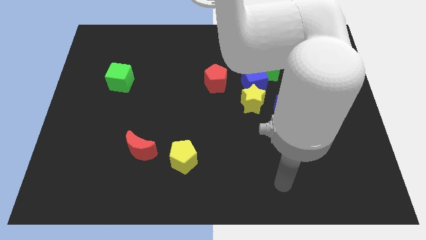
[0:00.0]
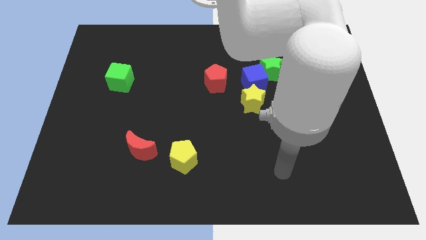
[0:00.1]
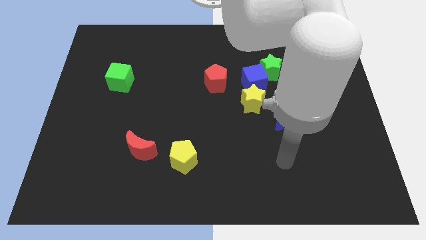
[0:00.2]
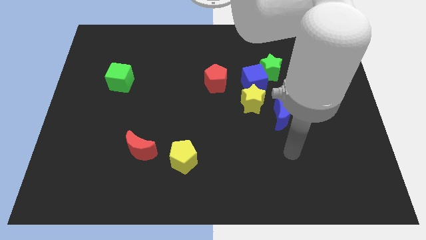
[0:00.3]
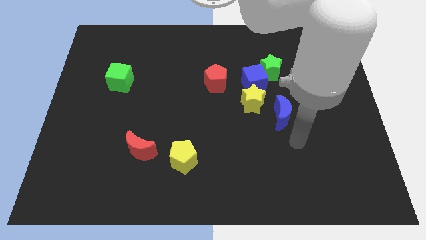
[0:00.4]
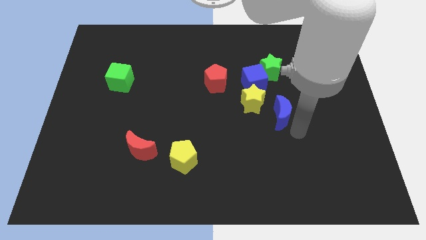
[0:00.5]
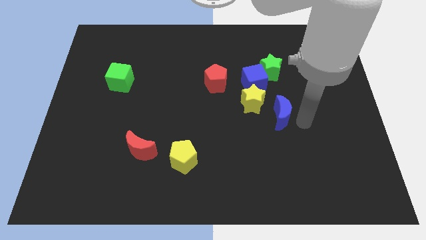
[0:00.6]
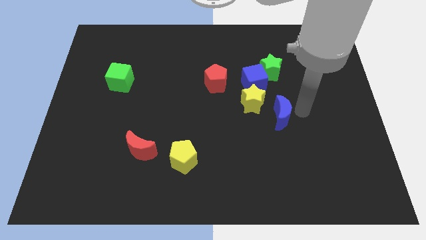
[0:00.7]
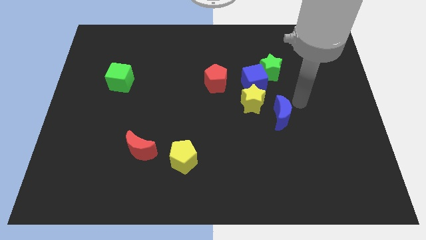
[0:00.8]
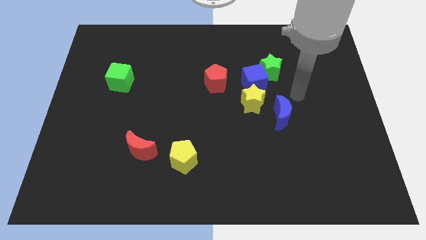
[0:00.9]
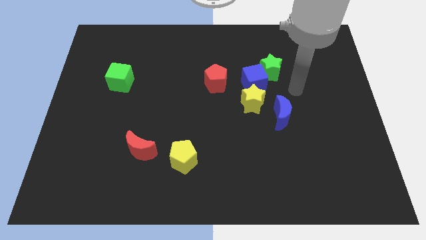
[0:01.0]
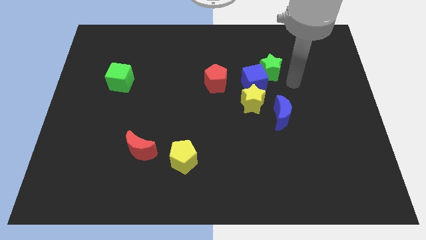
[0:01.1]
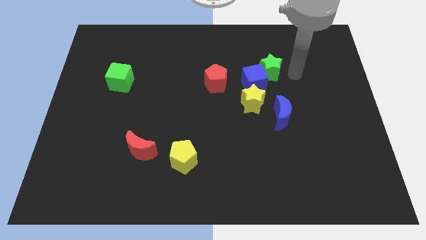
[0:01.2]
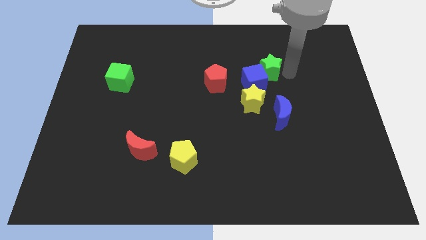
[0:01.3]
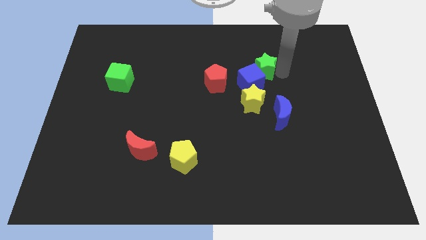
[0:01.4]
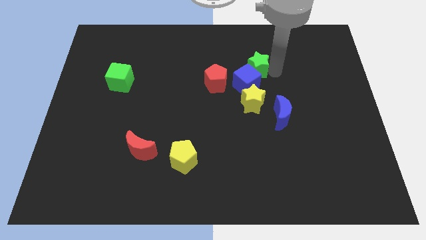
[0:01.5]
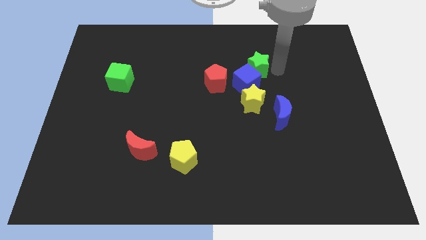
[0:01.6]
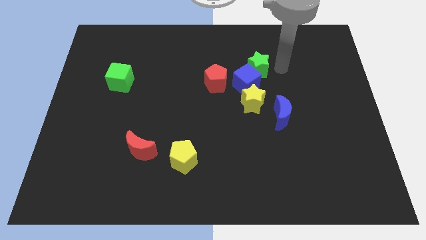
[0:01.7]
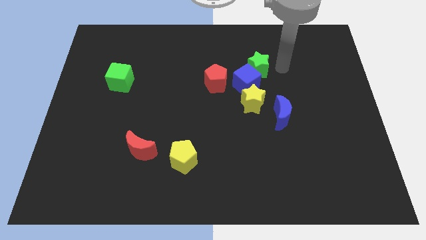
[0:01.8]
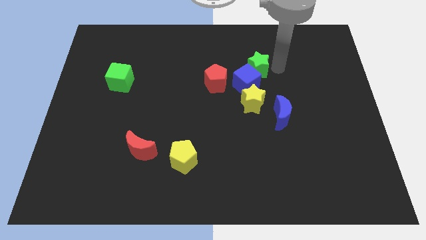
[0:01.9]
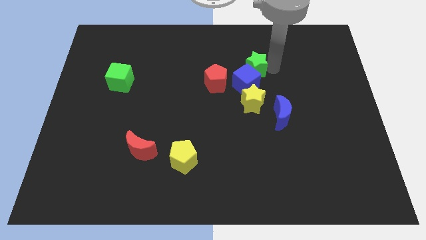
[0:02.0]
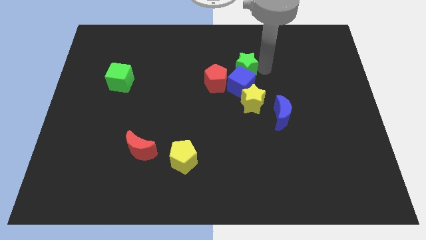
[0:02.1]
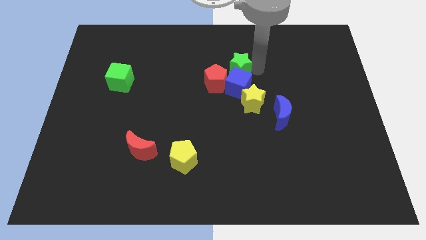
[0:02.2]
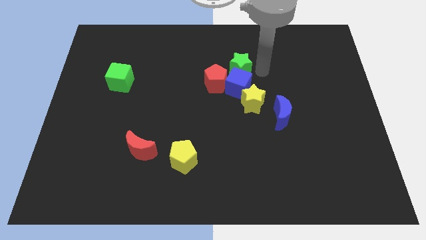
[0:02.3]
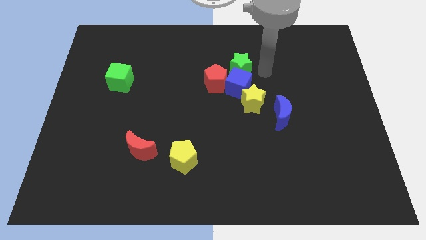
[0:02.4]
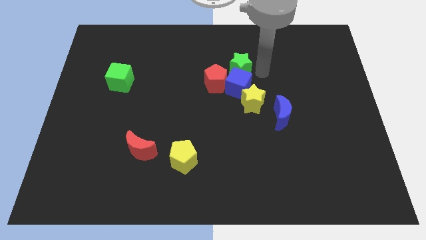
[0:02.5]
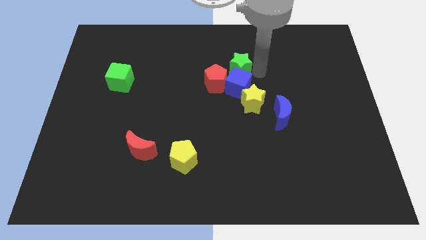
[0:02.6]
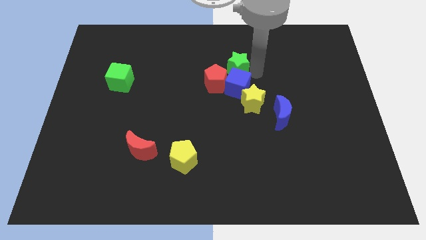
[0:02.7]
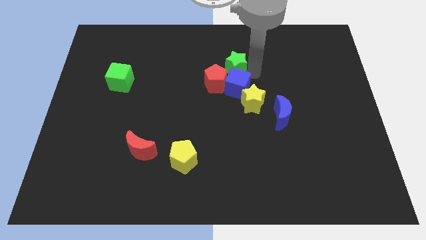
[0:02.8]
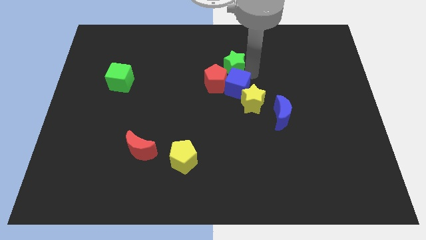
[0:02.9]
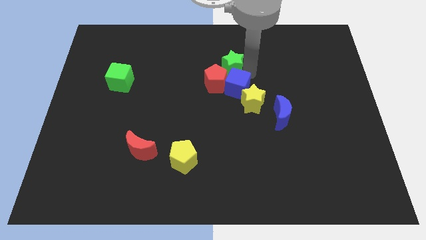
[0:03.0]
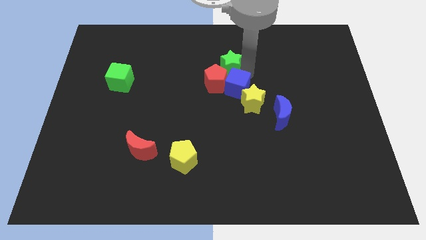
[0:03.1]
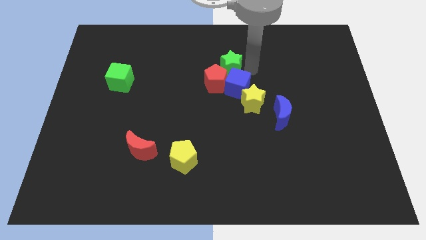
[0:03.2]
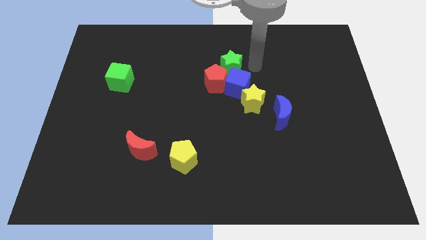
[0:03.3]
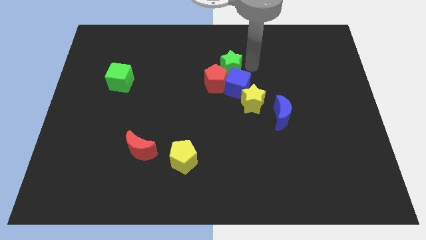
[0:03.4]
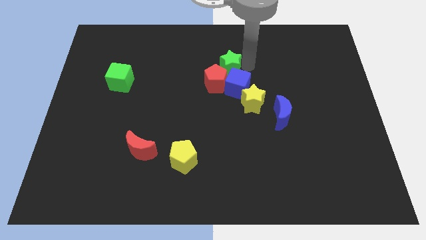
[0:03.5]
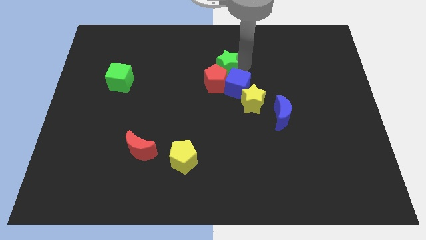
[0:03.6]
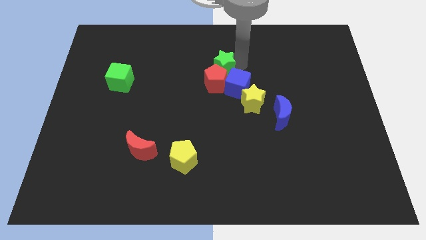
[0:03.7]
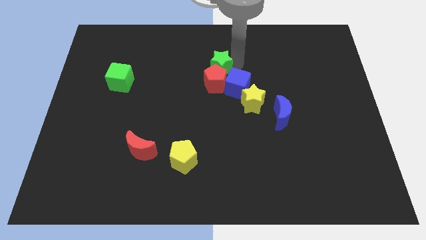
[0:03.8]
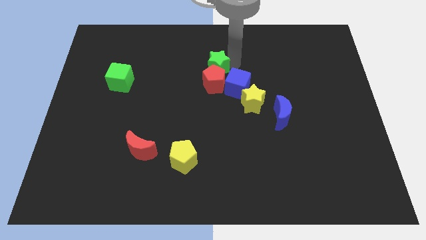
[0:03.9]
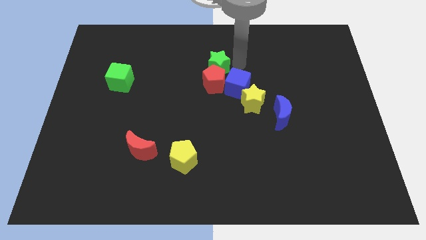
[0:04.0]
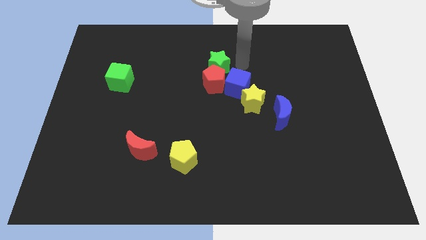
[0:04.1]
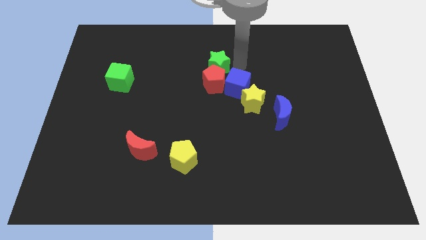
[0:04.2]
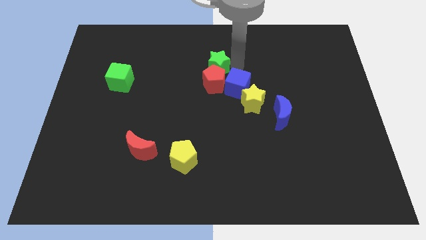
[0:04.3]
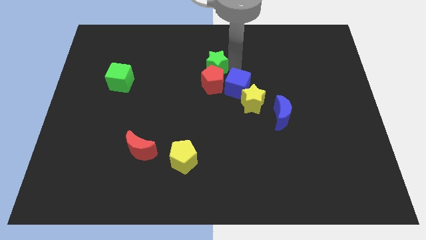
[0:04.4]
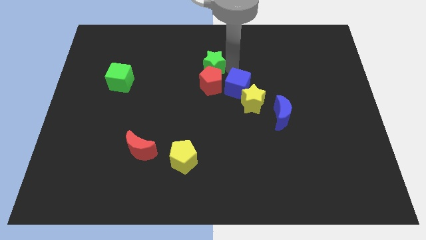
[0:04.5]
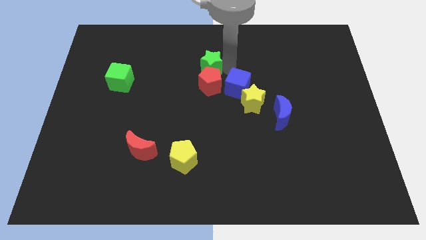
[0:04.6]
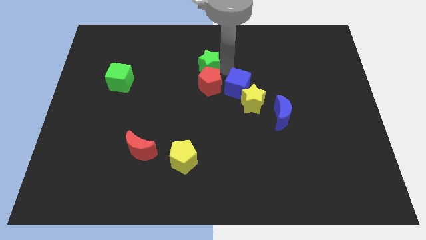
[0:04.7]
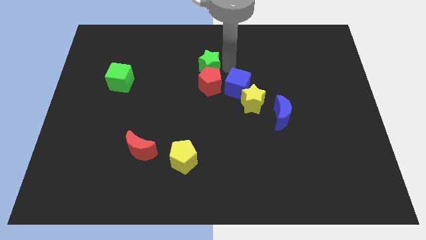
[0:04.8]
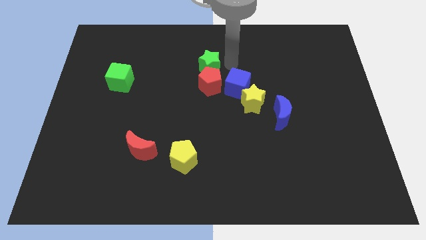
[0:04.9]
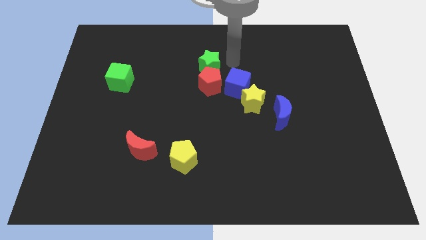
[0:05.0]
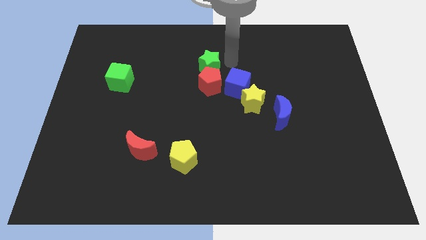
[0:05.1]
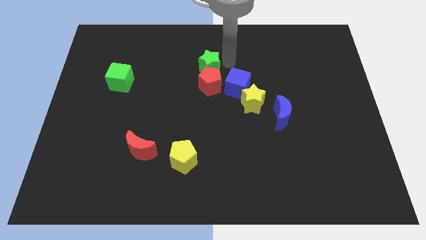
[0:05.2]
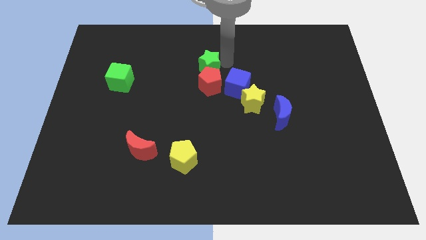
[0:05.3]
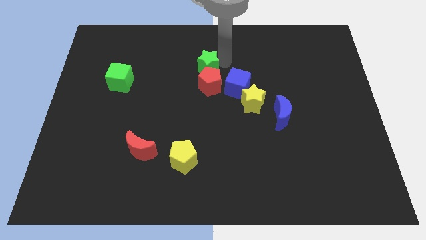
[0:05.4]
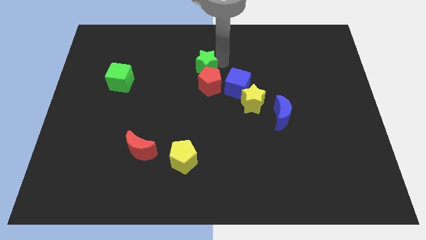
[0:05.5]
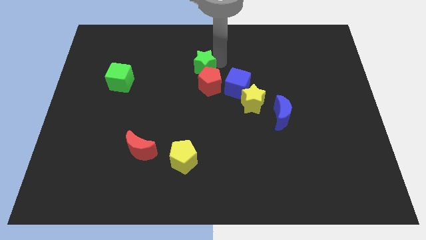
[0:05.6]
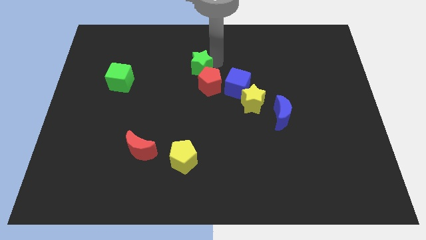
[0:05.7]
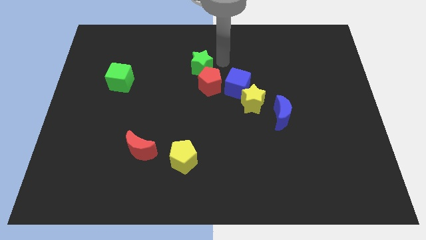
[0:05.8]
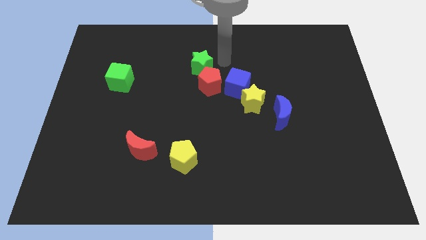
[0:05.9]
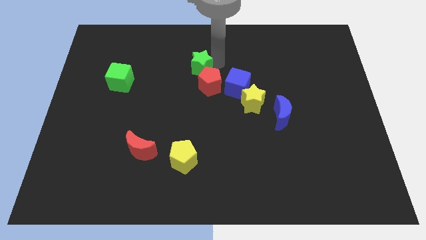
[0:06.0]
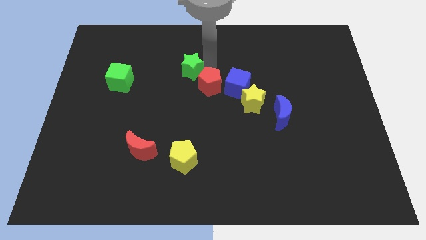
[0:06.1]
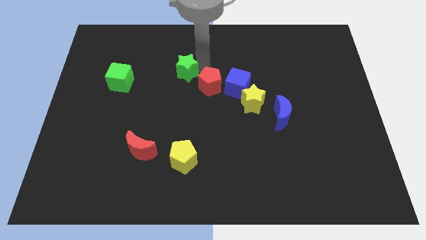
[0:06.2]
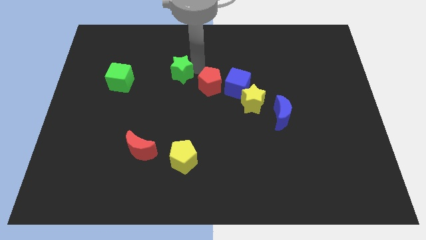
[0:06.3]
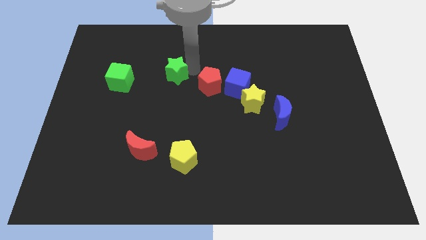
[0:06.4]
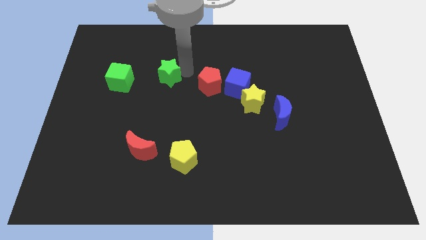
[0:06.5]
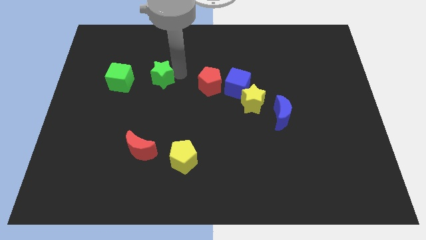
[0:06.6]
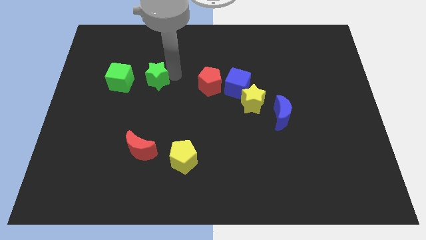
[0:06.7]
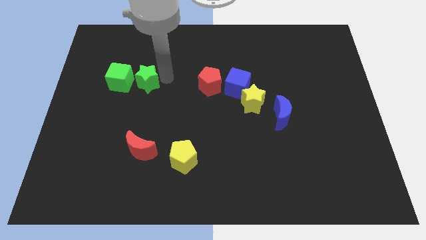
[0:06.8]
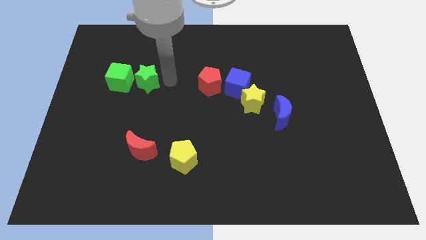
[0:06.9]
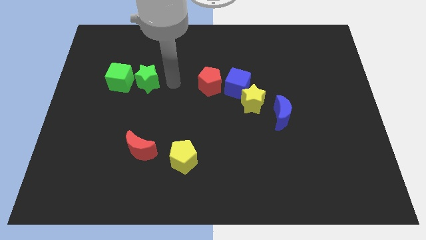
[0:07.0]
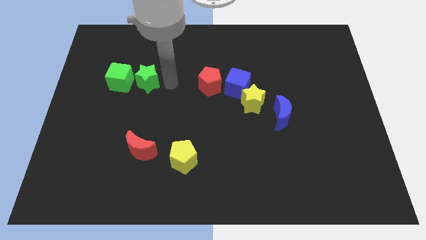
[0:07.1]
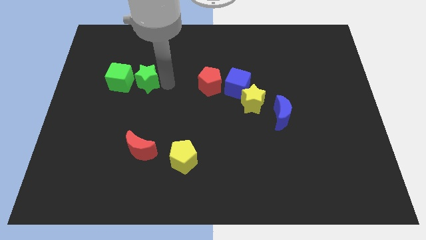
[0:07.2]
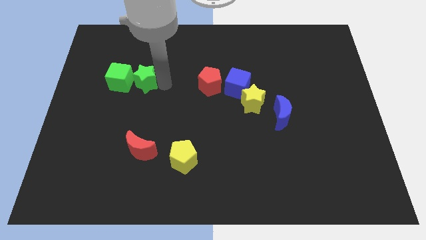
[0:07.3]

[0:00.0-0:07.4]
push the green star to the green cube
